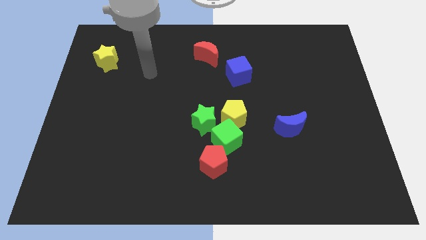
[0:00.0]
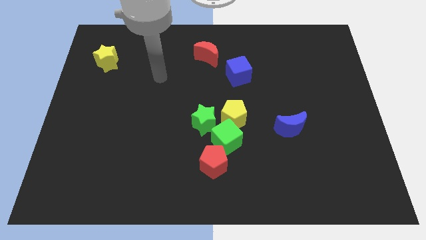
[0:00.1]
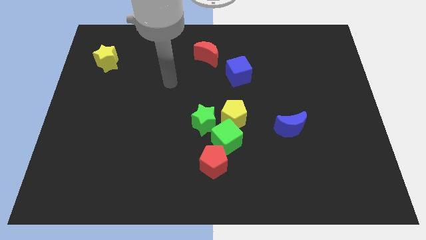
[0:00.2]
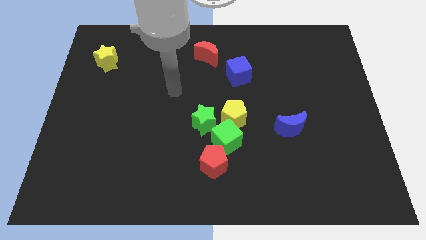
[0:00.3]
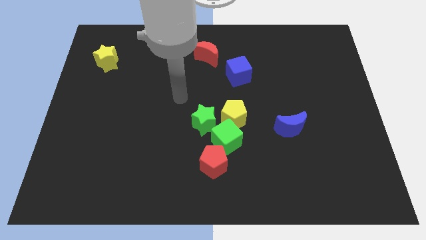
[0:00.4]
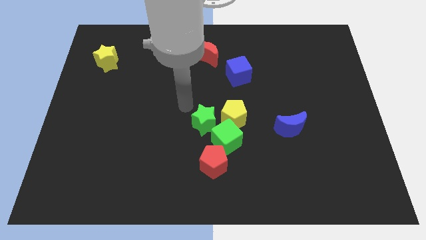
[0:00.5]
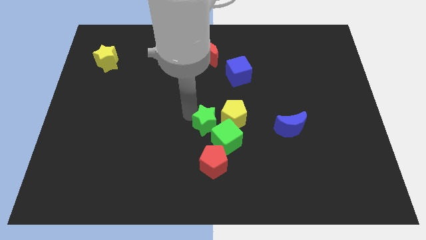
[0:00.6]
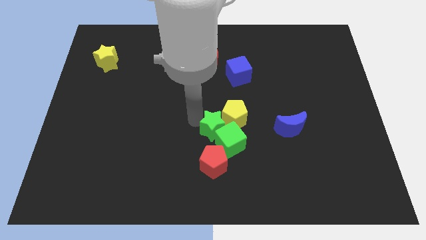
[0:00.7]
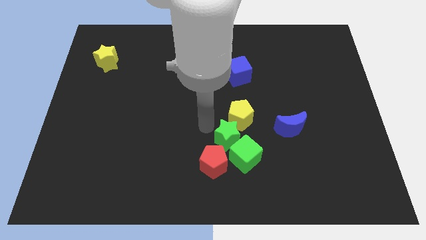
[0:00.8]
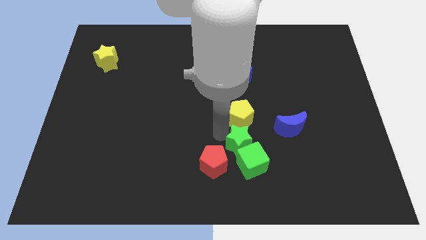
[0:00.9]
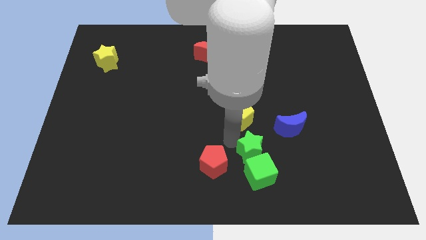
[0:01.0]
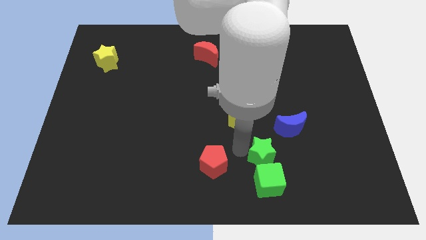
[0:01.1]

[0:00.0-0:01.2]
separate the green cube from the yellow pentagon, red pentagon, and green star

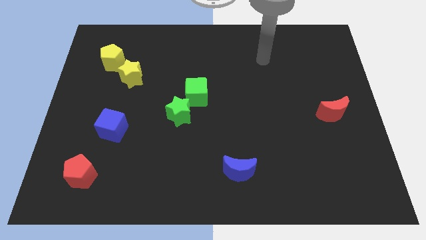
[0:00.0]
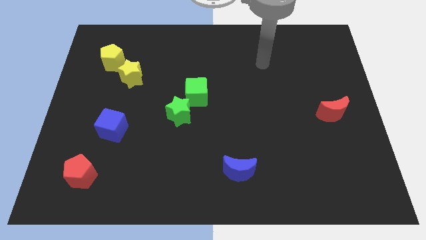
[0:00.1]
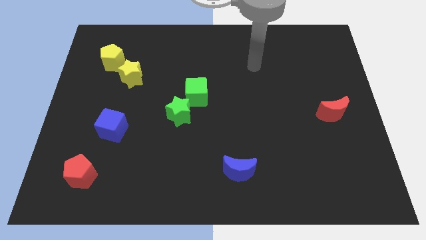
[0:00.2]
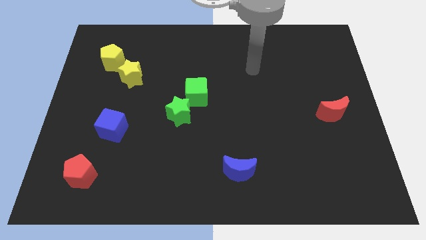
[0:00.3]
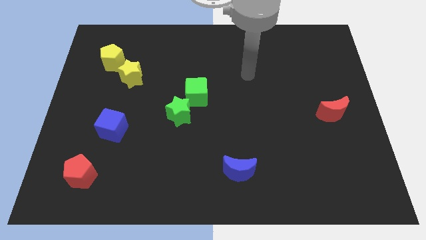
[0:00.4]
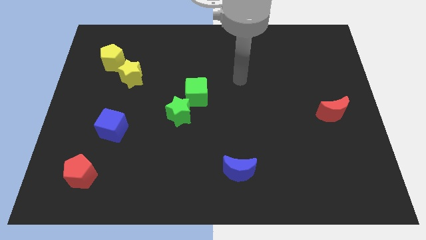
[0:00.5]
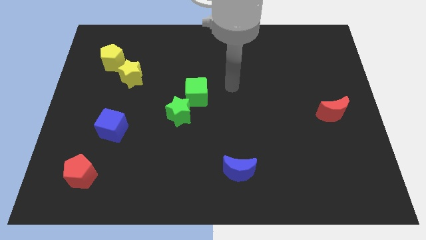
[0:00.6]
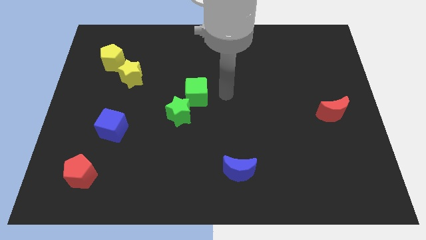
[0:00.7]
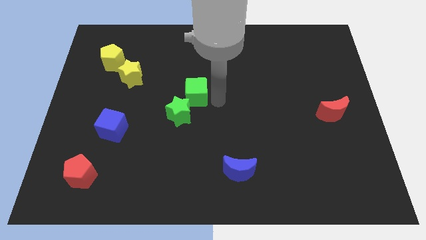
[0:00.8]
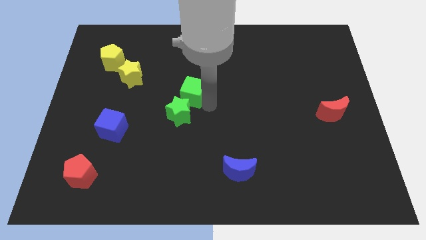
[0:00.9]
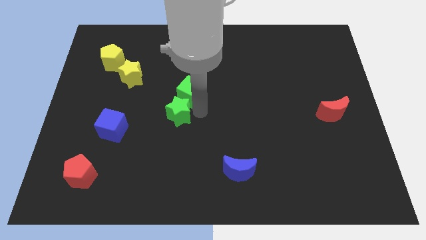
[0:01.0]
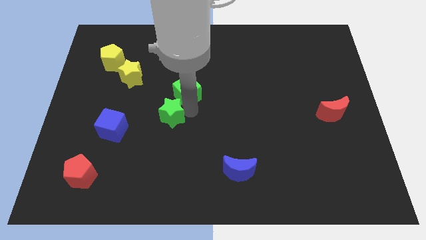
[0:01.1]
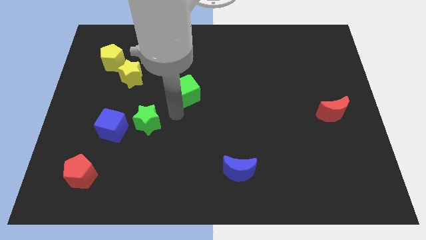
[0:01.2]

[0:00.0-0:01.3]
pull the green cube apart from the green star

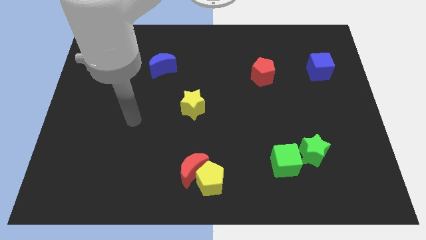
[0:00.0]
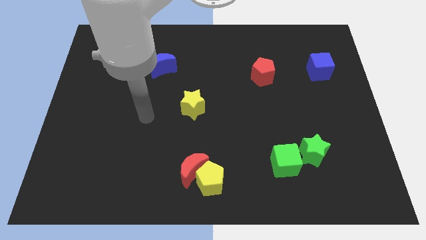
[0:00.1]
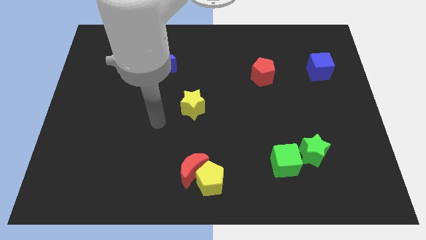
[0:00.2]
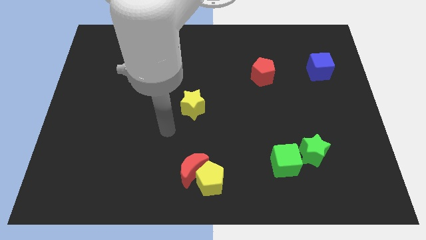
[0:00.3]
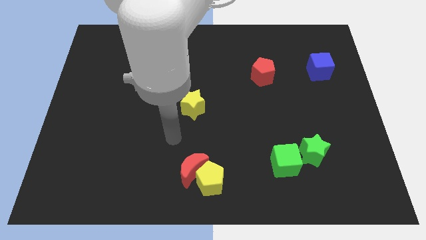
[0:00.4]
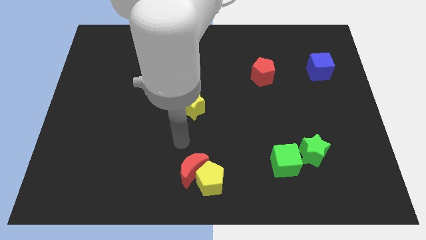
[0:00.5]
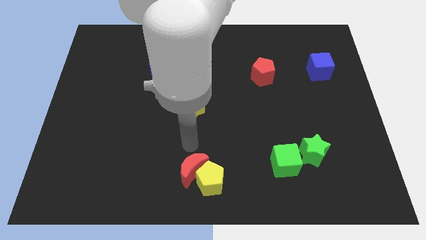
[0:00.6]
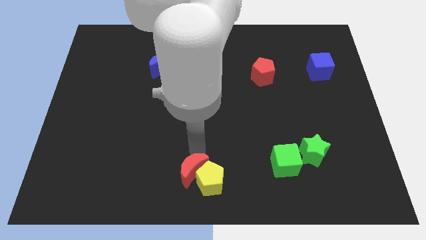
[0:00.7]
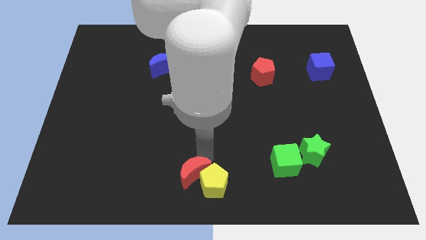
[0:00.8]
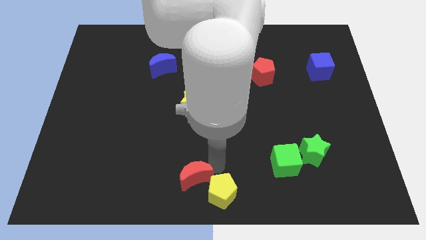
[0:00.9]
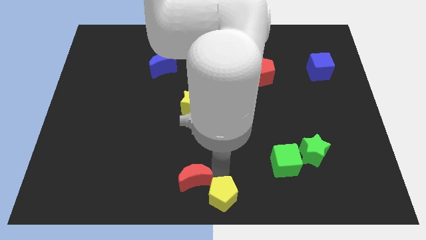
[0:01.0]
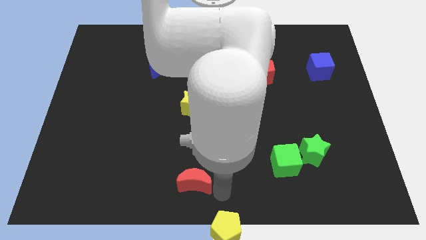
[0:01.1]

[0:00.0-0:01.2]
separate the red moon from the yellow pentagon

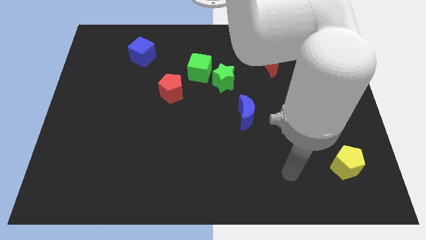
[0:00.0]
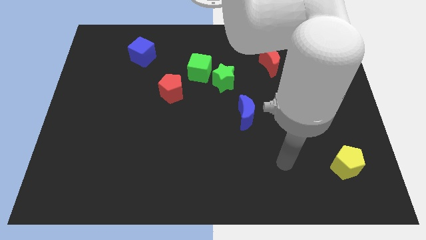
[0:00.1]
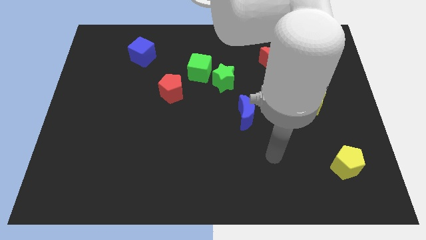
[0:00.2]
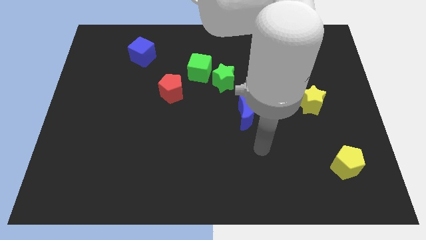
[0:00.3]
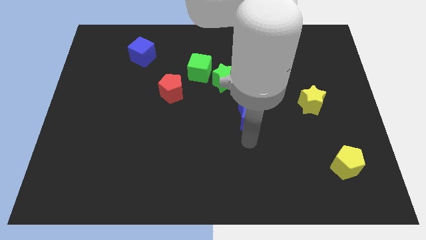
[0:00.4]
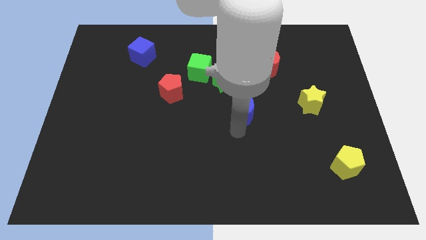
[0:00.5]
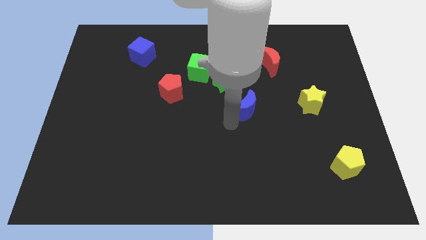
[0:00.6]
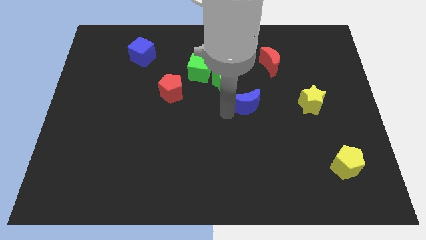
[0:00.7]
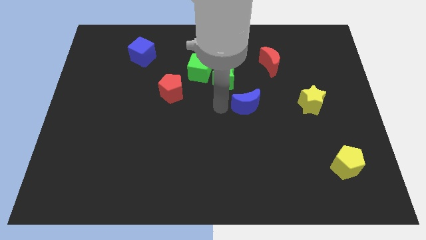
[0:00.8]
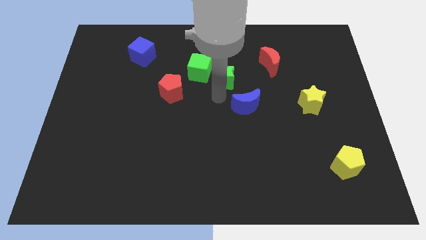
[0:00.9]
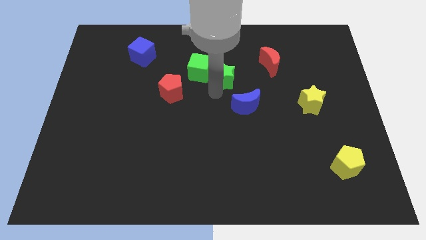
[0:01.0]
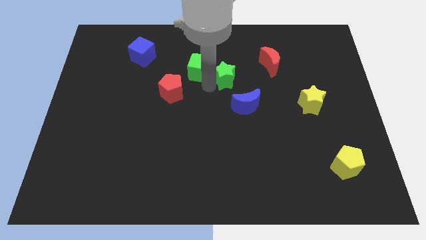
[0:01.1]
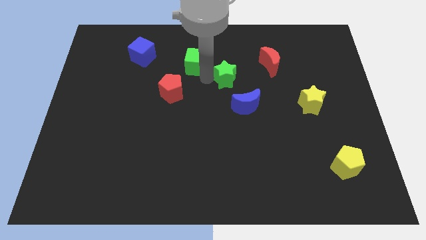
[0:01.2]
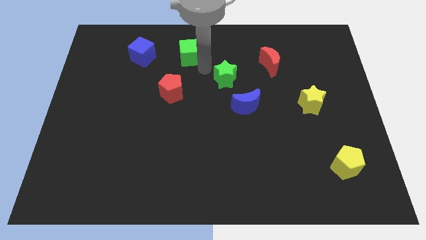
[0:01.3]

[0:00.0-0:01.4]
move the green star away from the green cube

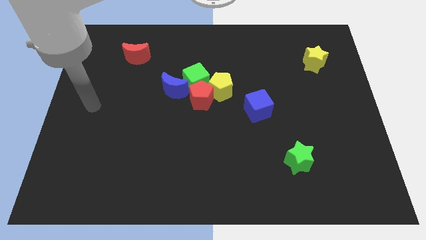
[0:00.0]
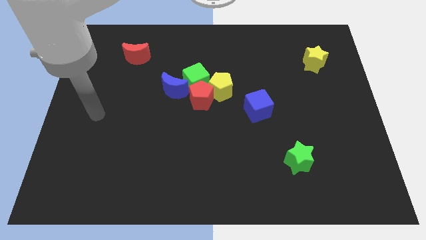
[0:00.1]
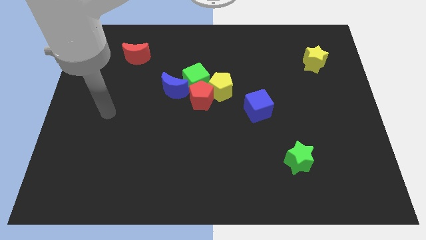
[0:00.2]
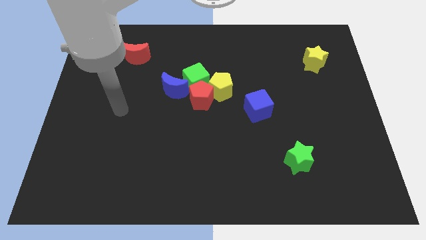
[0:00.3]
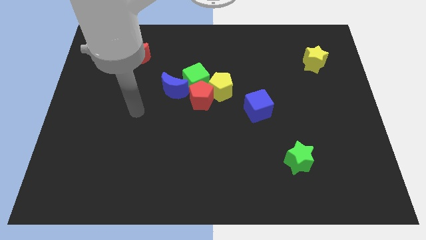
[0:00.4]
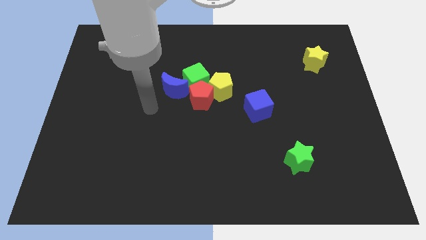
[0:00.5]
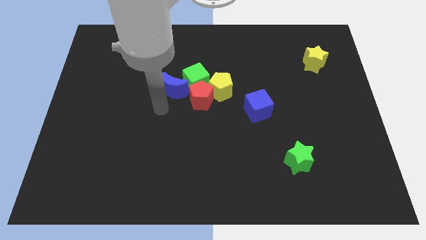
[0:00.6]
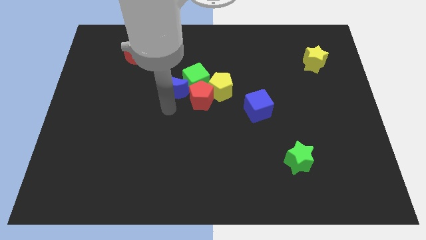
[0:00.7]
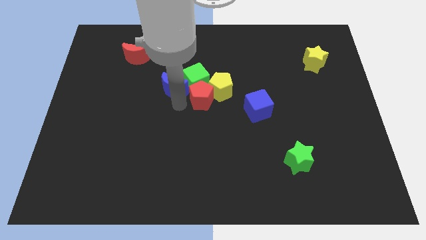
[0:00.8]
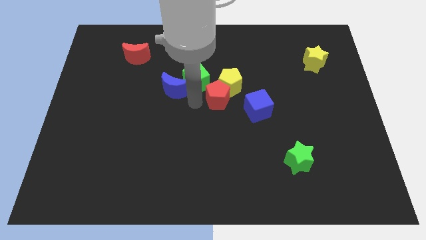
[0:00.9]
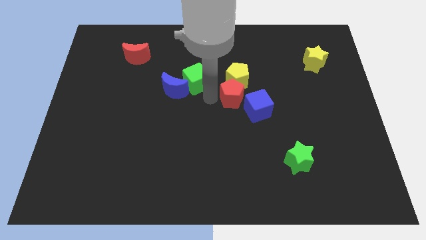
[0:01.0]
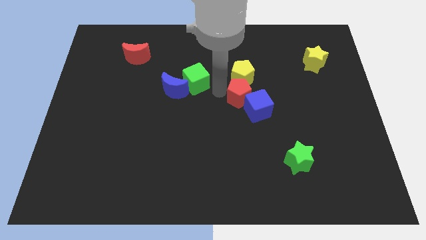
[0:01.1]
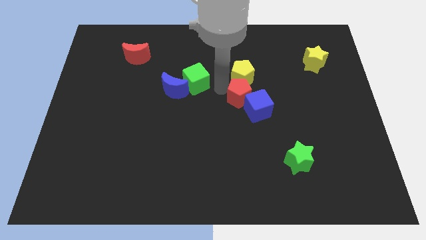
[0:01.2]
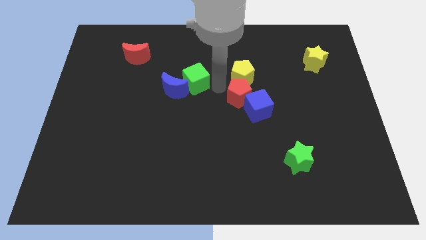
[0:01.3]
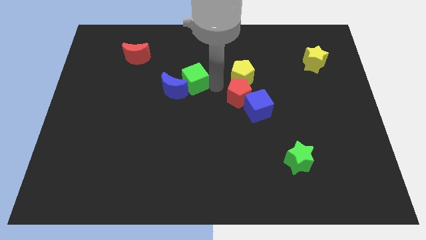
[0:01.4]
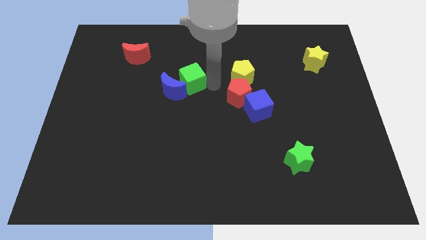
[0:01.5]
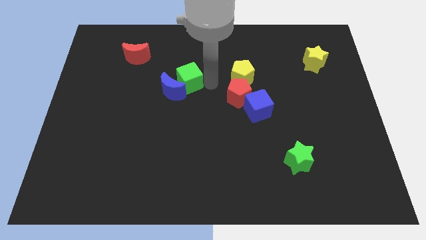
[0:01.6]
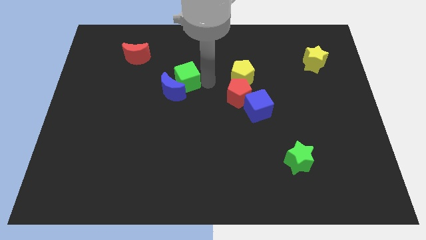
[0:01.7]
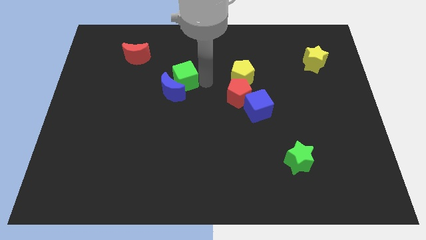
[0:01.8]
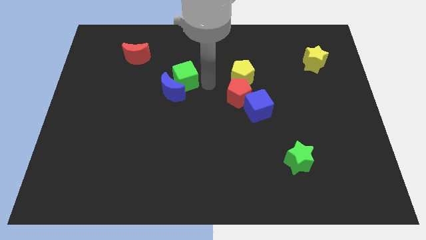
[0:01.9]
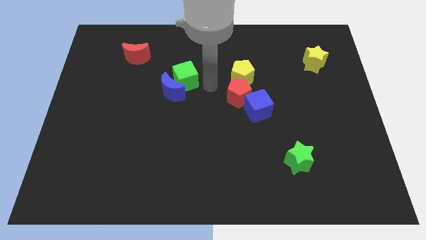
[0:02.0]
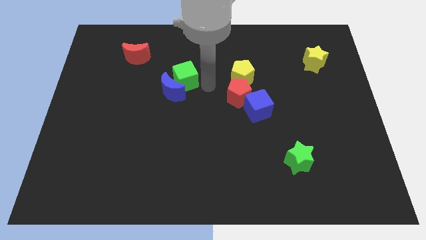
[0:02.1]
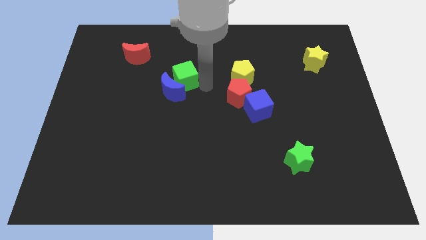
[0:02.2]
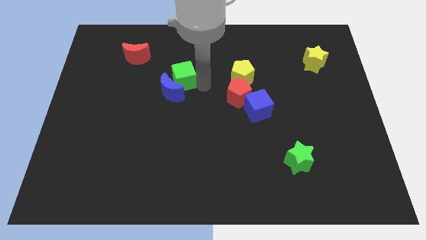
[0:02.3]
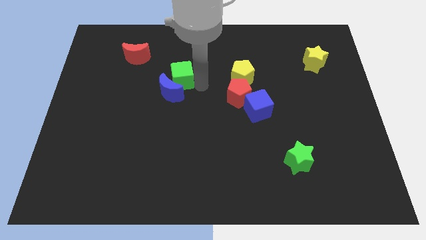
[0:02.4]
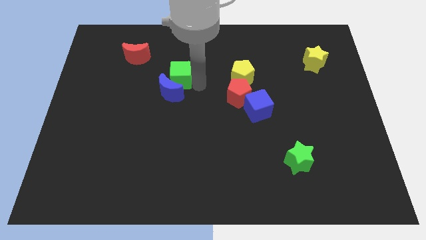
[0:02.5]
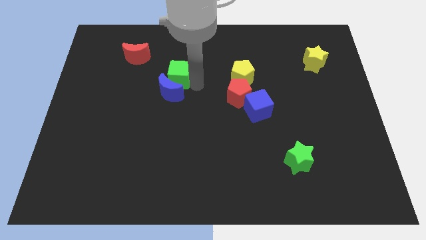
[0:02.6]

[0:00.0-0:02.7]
move the green cube away from the group of blocks

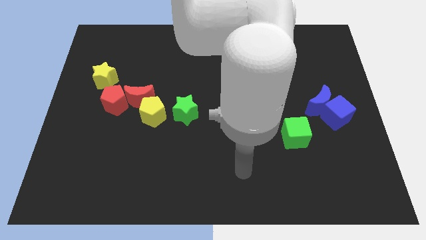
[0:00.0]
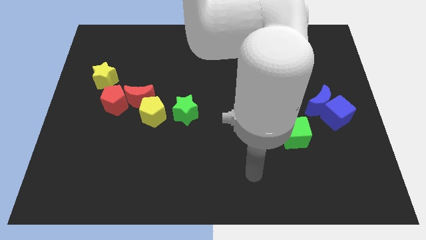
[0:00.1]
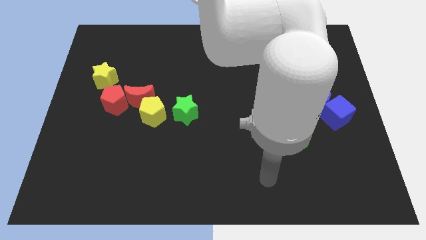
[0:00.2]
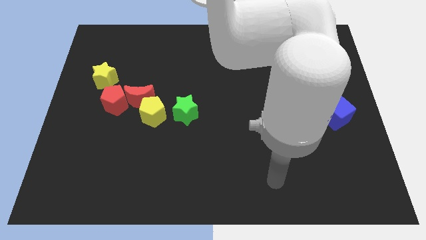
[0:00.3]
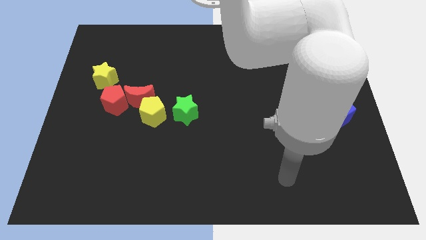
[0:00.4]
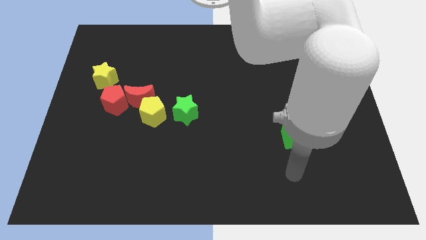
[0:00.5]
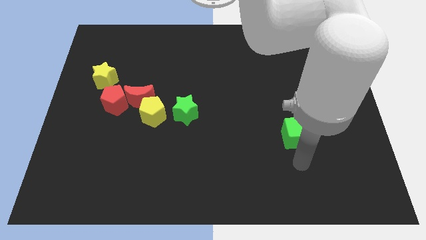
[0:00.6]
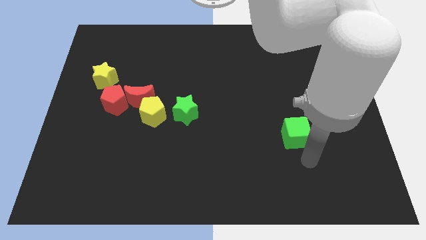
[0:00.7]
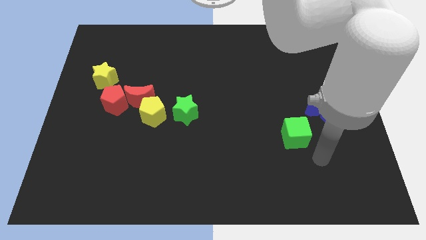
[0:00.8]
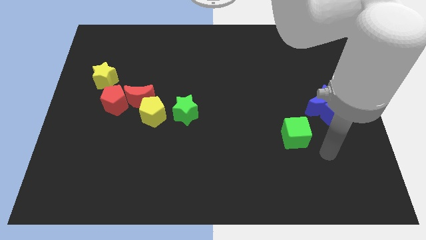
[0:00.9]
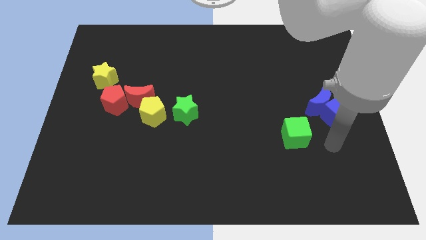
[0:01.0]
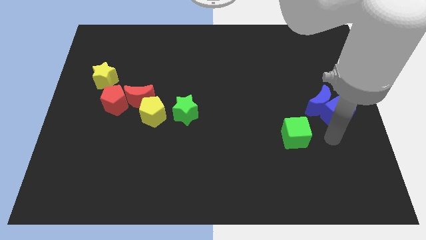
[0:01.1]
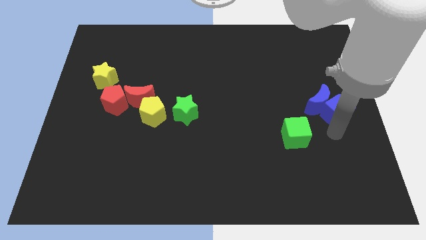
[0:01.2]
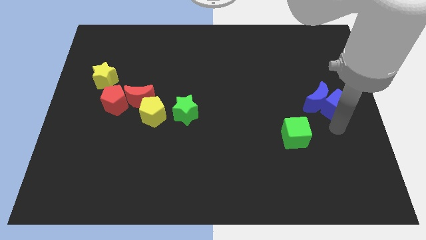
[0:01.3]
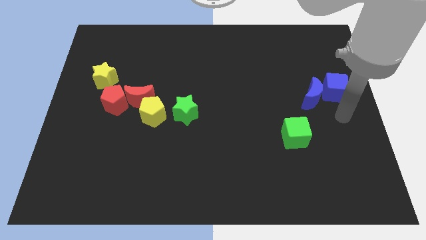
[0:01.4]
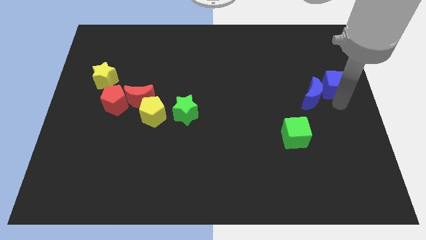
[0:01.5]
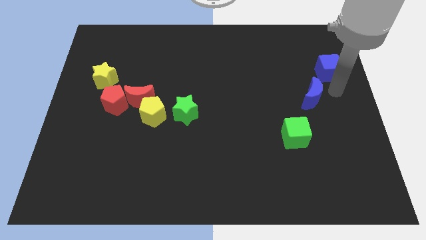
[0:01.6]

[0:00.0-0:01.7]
move the blue moon away from the blue cube
